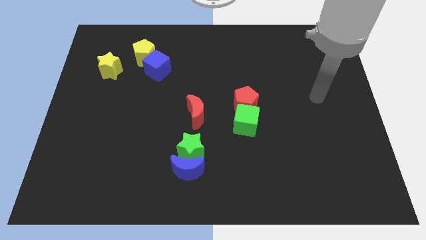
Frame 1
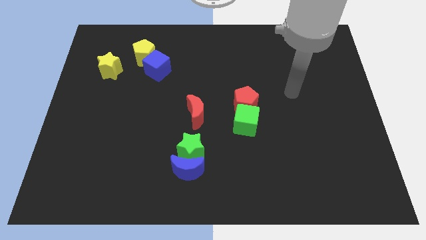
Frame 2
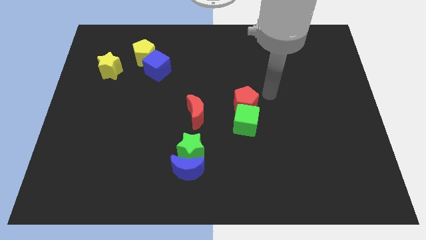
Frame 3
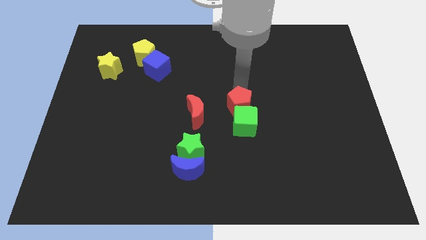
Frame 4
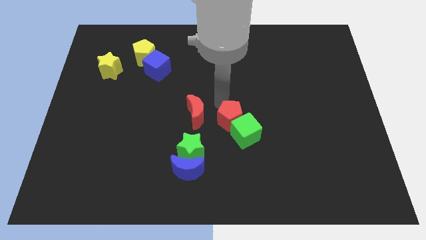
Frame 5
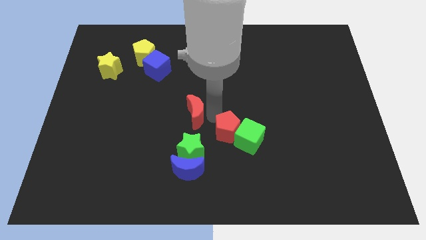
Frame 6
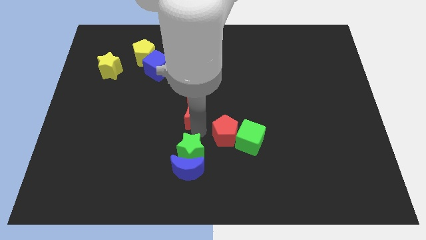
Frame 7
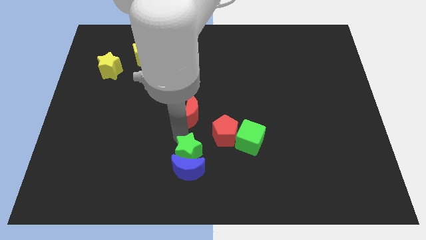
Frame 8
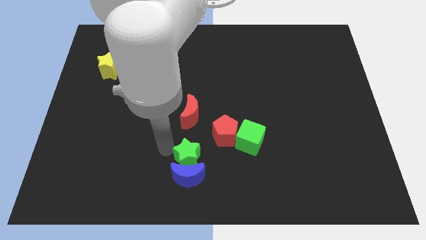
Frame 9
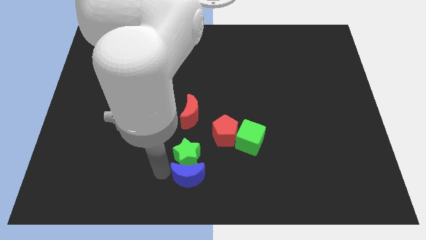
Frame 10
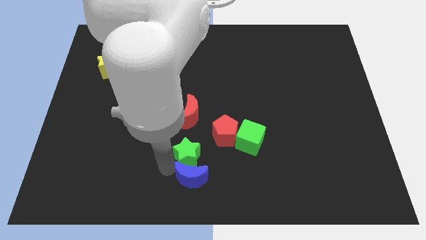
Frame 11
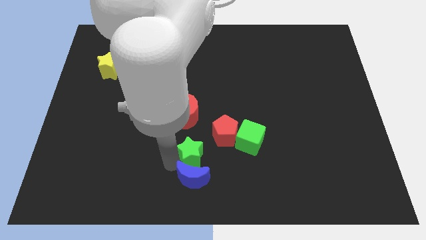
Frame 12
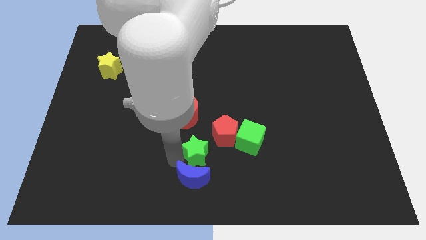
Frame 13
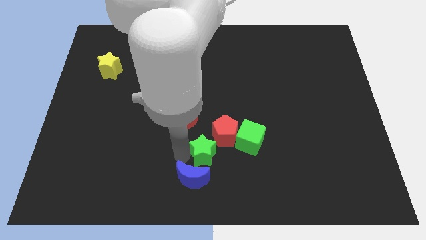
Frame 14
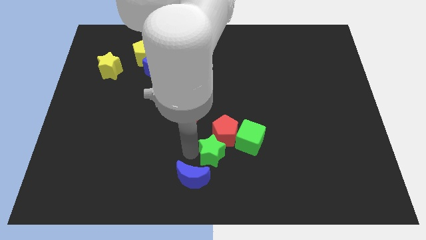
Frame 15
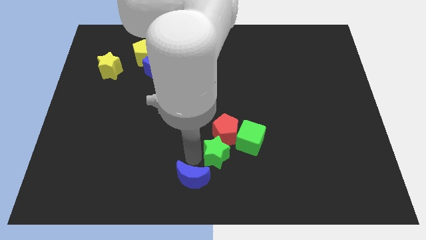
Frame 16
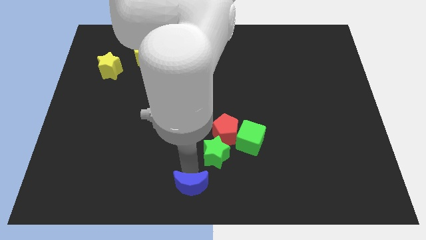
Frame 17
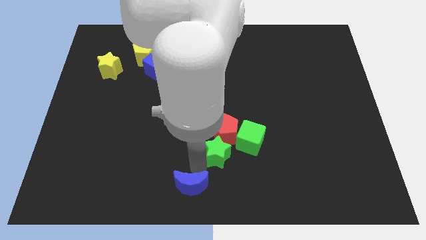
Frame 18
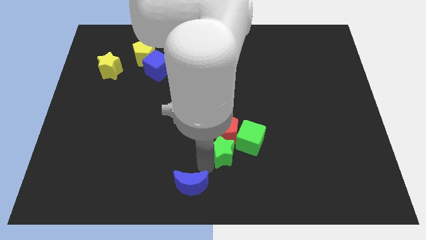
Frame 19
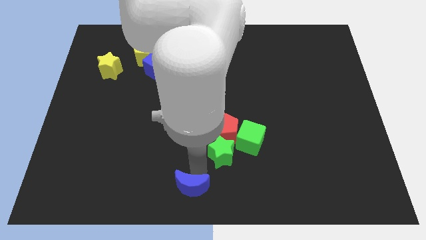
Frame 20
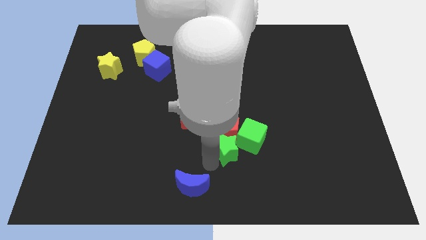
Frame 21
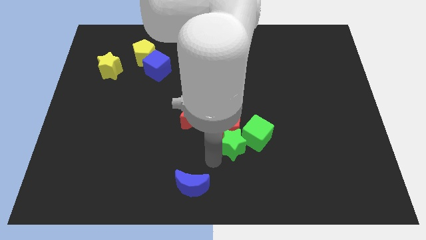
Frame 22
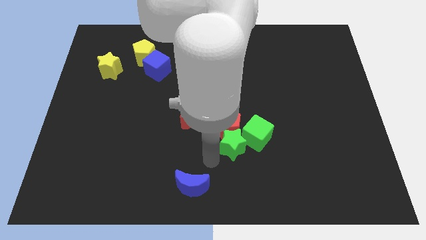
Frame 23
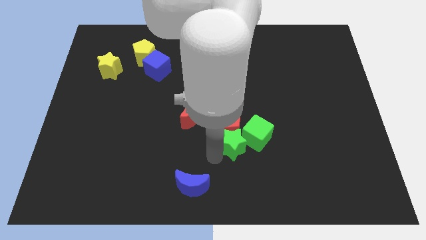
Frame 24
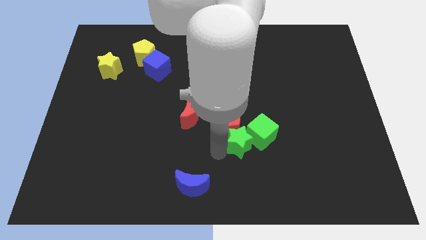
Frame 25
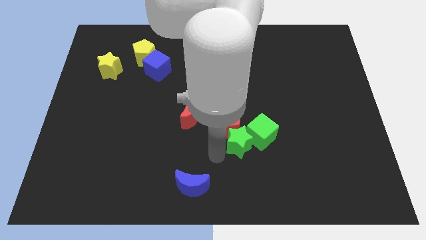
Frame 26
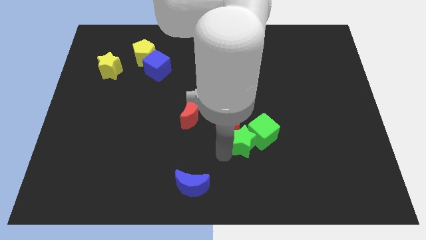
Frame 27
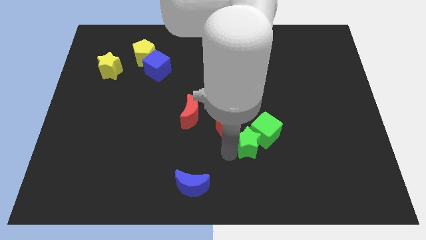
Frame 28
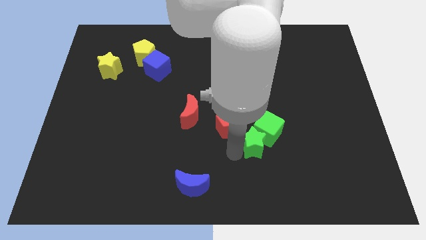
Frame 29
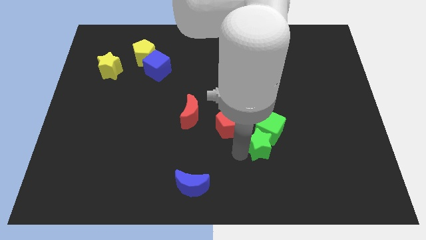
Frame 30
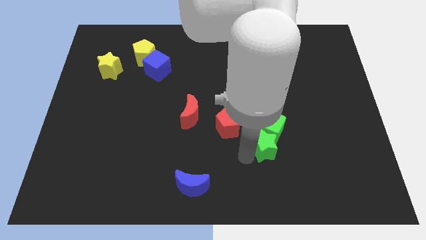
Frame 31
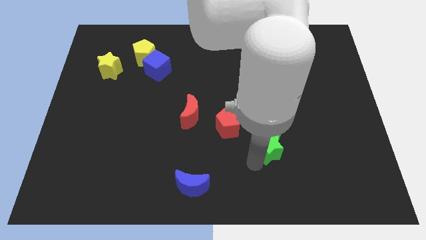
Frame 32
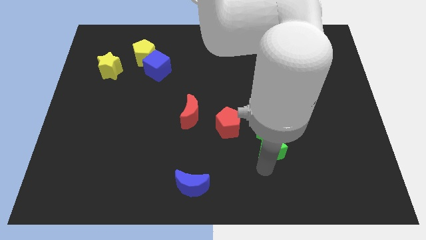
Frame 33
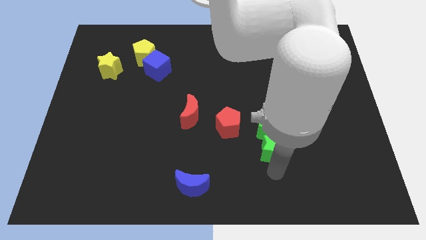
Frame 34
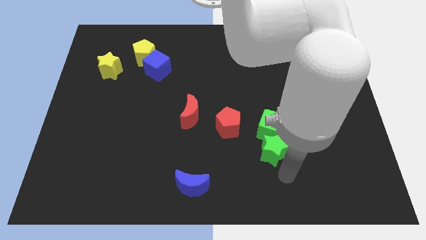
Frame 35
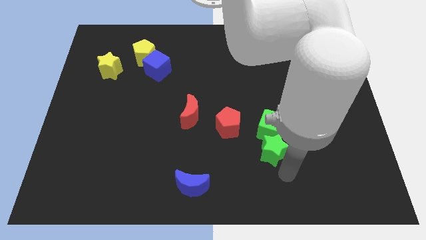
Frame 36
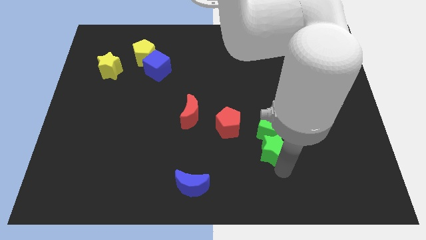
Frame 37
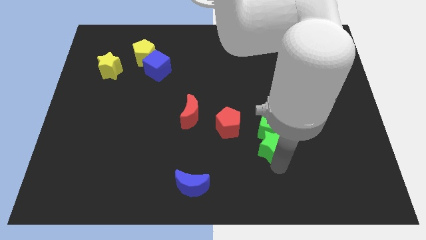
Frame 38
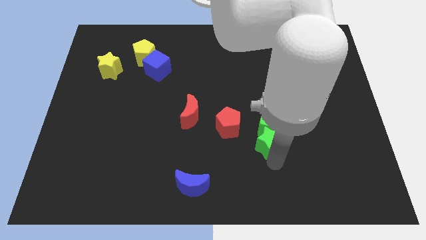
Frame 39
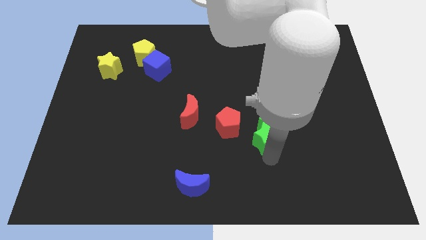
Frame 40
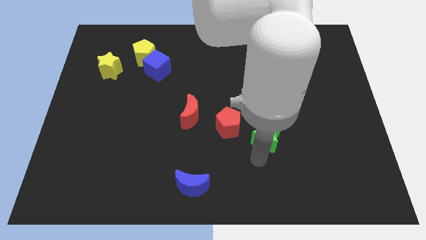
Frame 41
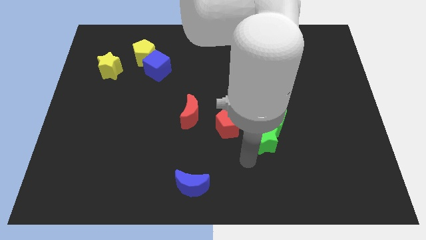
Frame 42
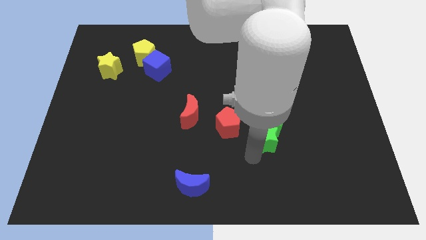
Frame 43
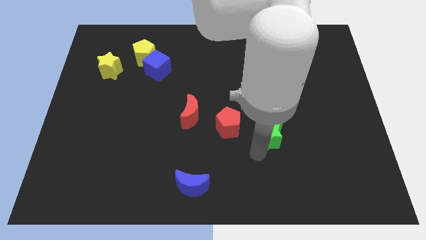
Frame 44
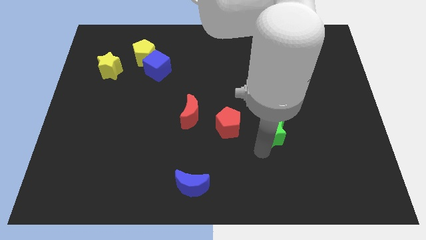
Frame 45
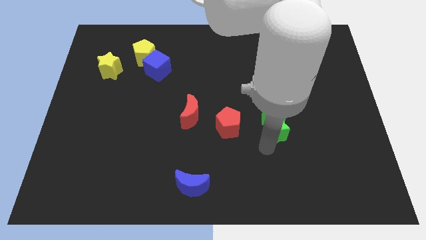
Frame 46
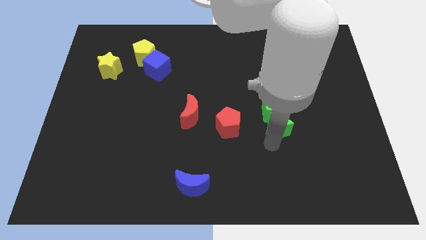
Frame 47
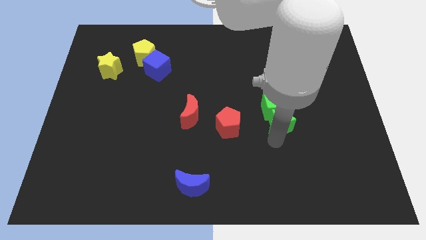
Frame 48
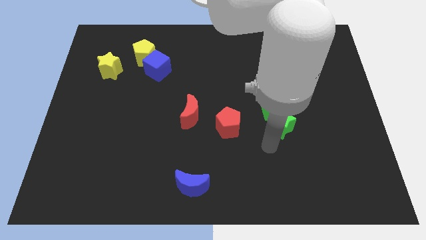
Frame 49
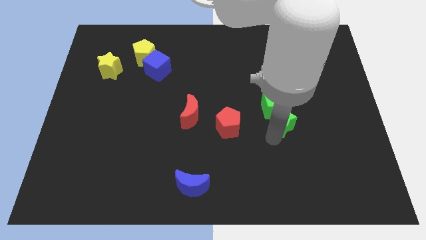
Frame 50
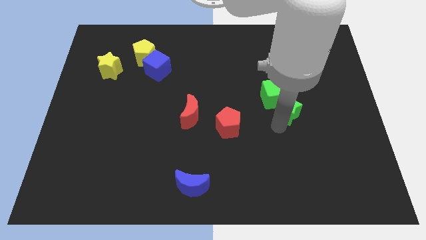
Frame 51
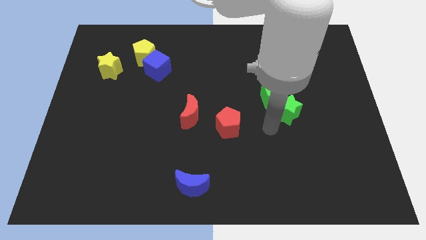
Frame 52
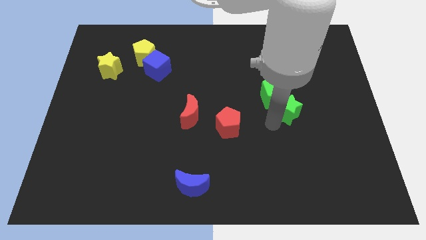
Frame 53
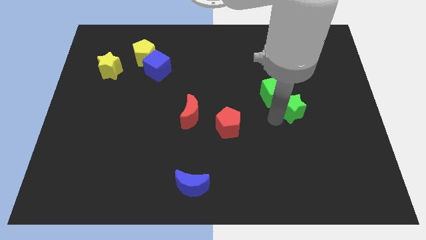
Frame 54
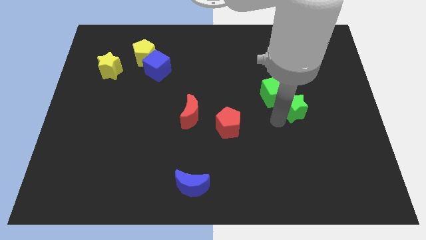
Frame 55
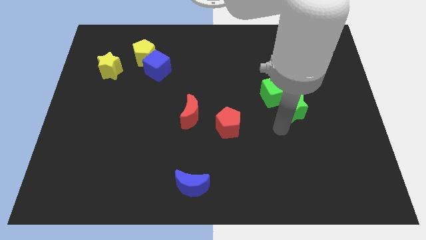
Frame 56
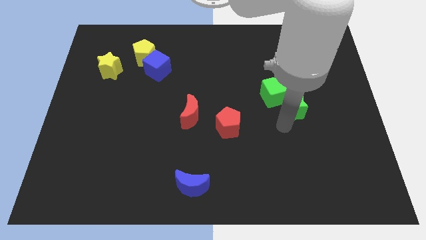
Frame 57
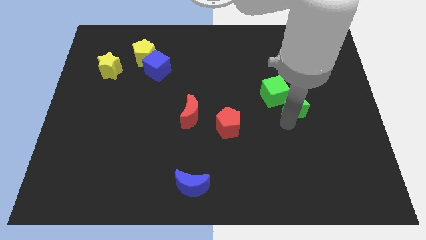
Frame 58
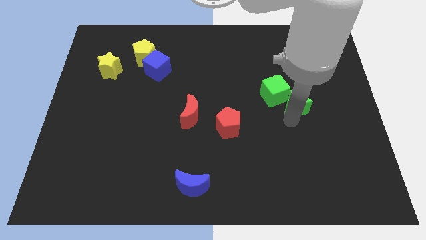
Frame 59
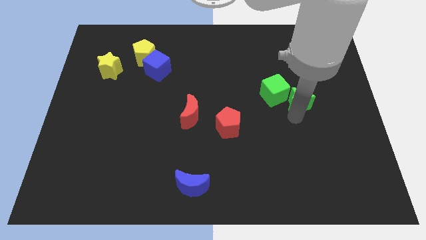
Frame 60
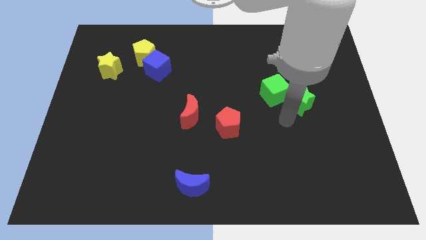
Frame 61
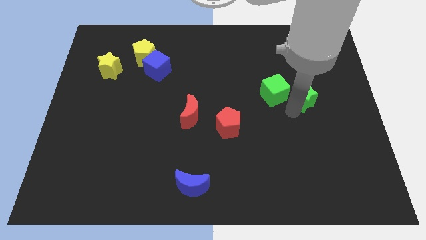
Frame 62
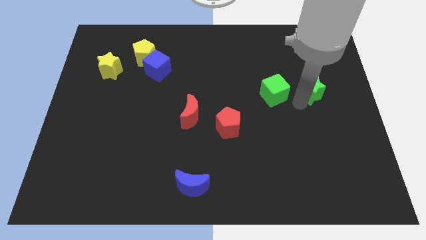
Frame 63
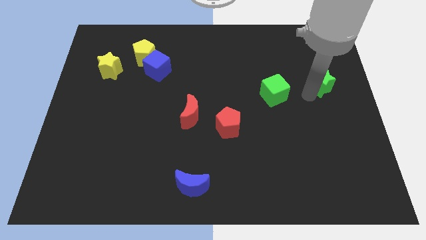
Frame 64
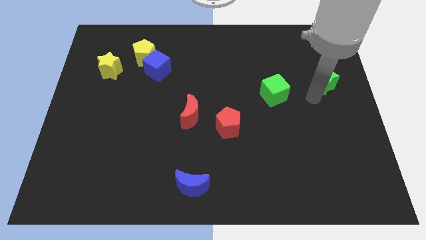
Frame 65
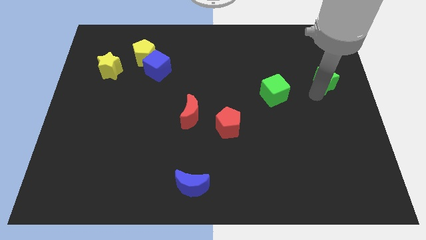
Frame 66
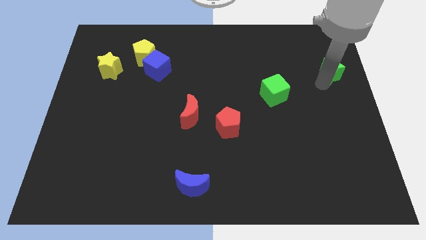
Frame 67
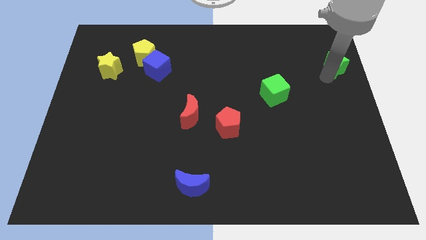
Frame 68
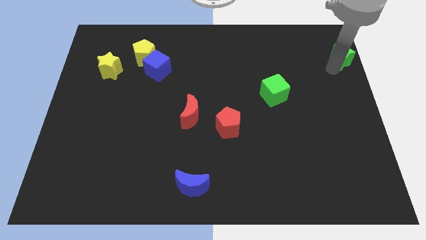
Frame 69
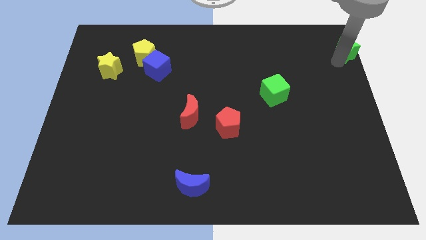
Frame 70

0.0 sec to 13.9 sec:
push the green star to the top right corner
